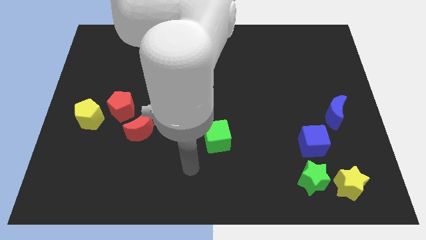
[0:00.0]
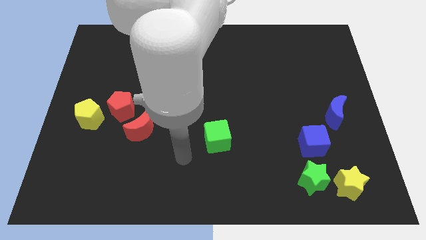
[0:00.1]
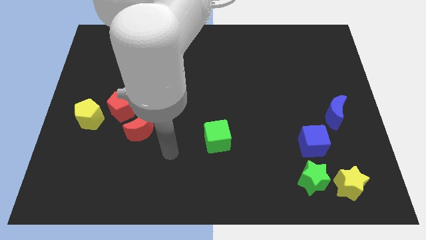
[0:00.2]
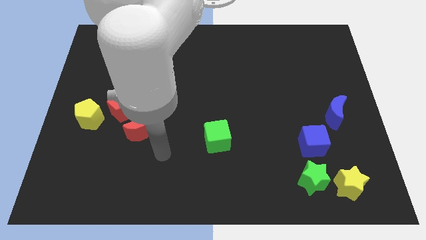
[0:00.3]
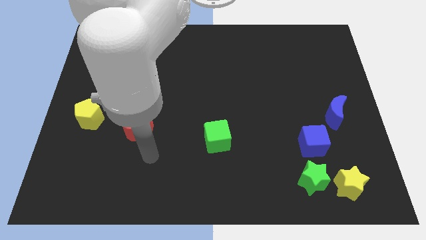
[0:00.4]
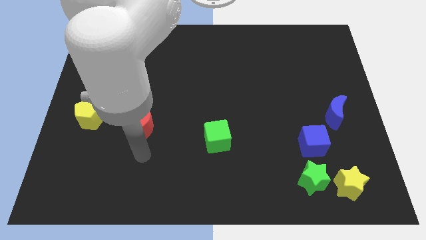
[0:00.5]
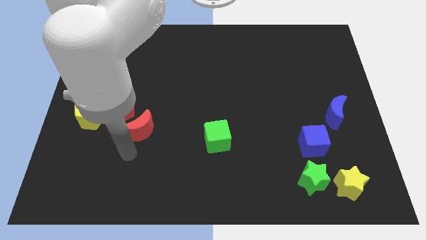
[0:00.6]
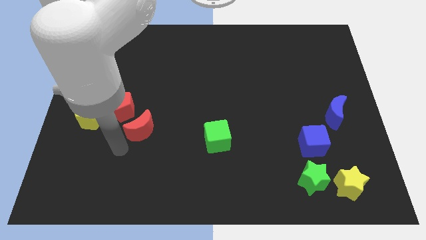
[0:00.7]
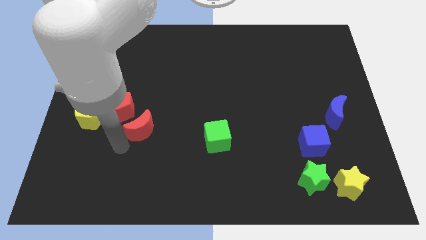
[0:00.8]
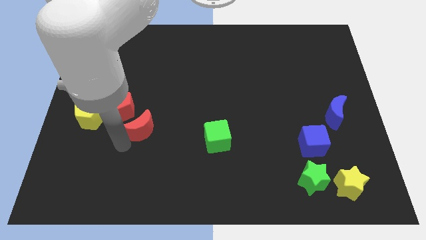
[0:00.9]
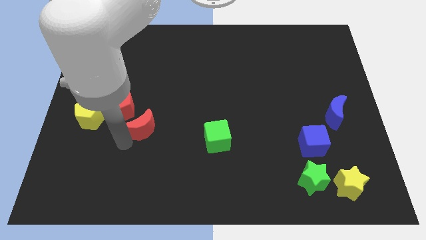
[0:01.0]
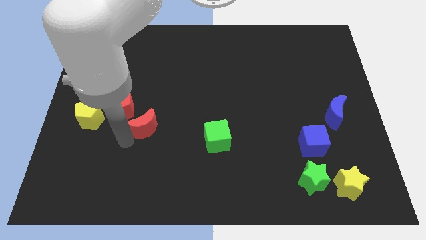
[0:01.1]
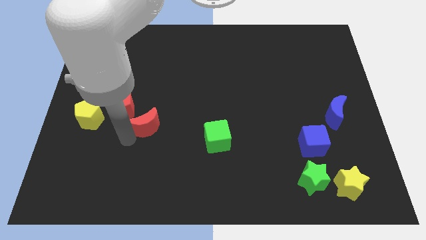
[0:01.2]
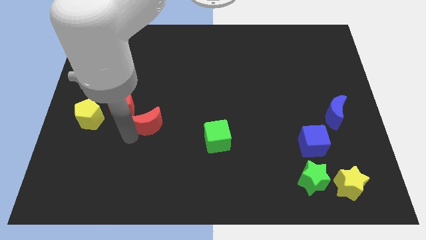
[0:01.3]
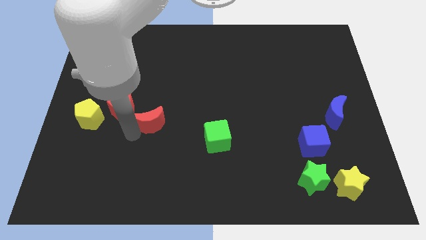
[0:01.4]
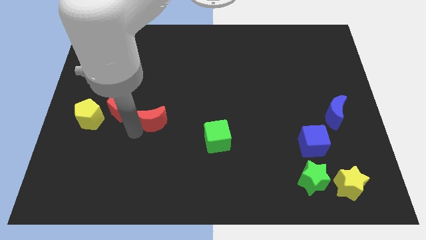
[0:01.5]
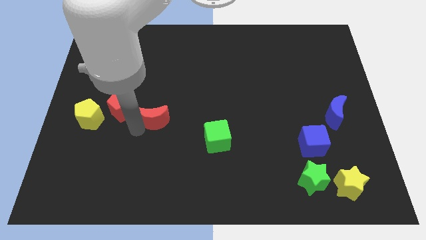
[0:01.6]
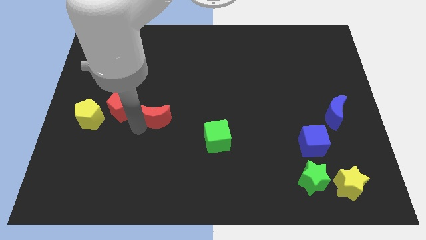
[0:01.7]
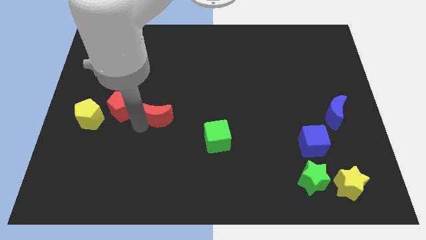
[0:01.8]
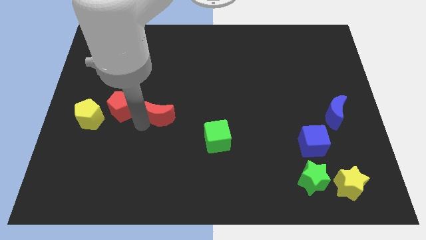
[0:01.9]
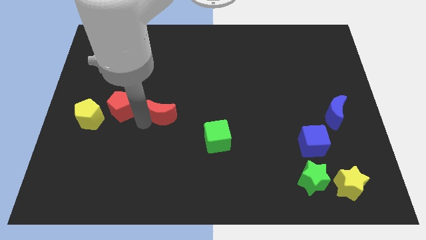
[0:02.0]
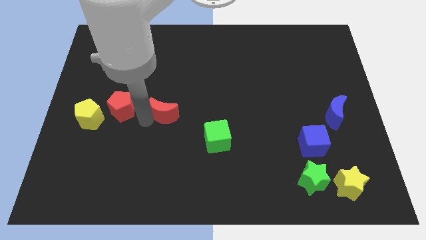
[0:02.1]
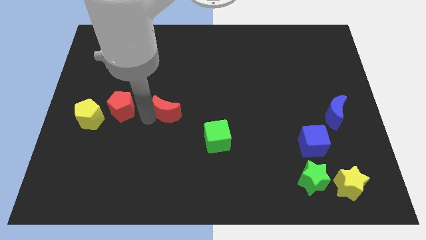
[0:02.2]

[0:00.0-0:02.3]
slightly move the red moon up and then to the right

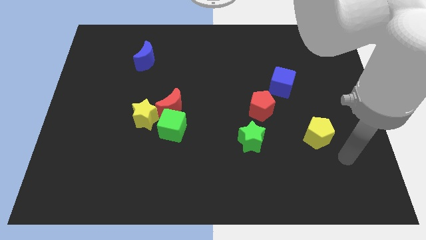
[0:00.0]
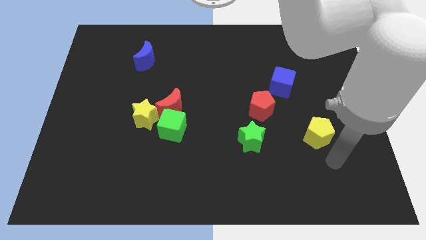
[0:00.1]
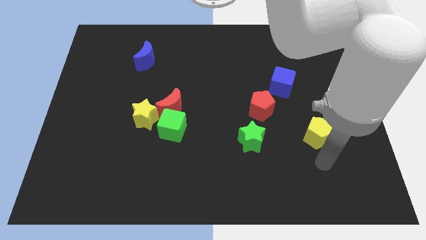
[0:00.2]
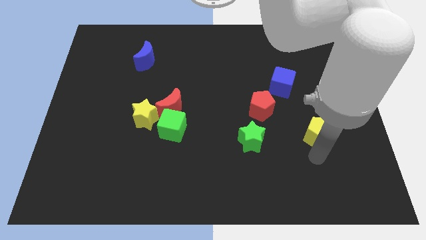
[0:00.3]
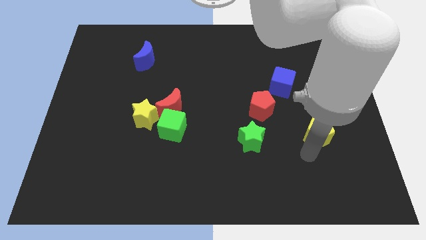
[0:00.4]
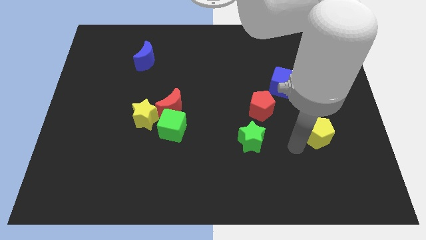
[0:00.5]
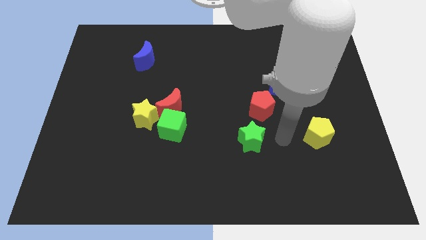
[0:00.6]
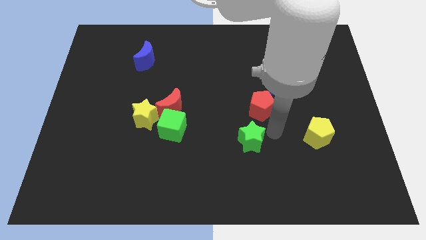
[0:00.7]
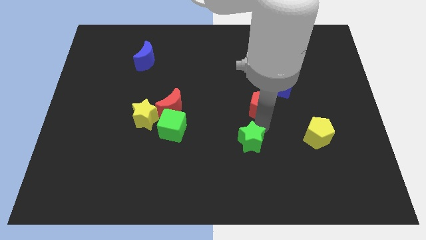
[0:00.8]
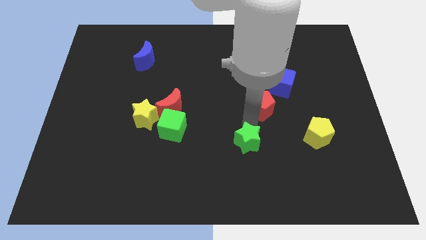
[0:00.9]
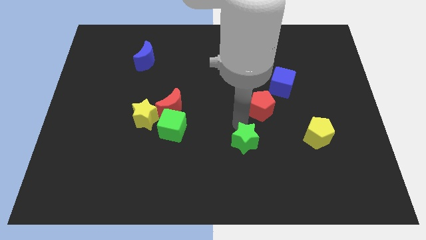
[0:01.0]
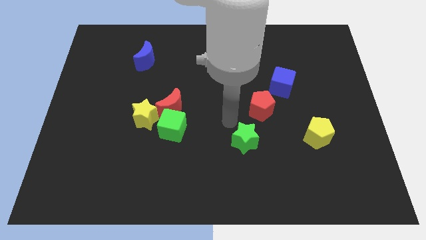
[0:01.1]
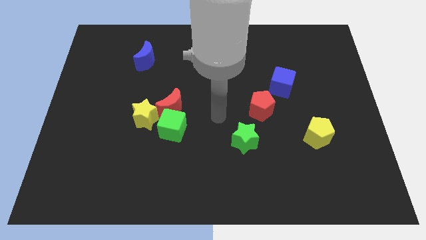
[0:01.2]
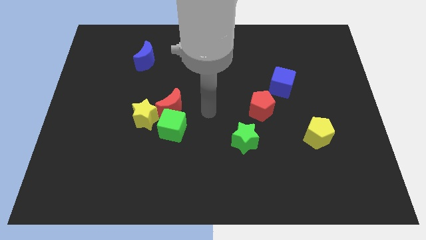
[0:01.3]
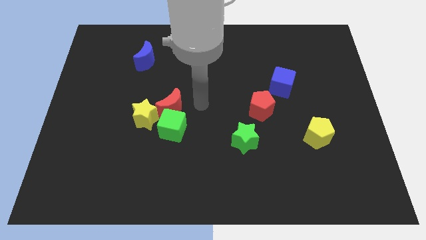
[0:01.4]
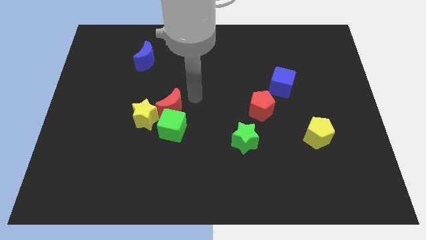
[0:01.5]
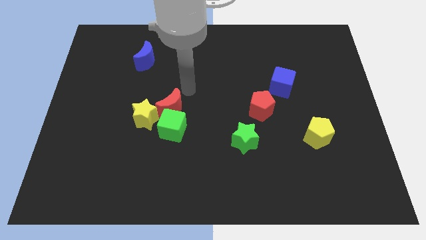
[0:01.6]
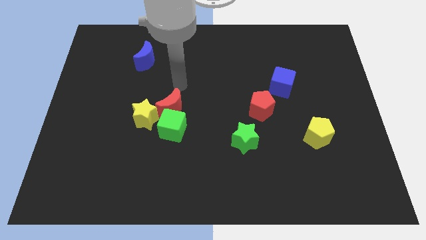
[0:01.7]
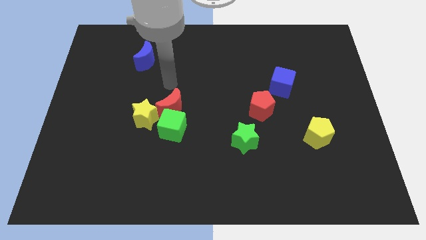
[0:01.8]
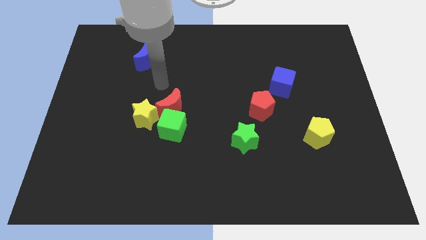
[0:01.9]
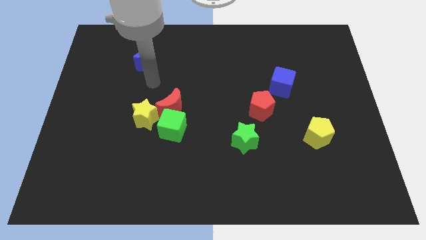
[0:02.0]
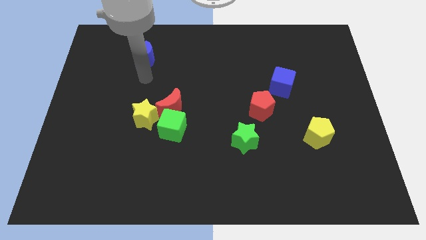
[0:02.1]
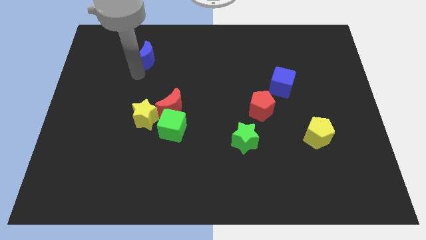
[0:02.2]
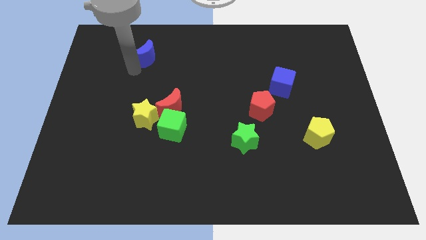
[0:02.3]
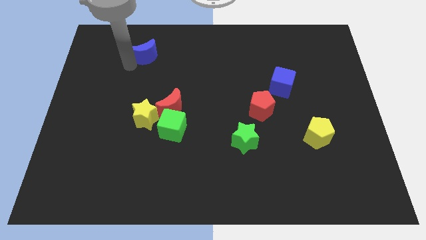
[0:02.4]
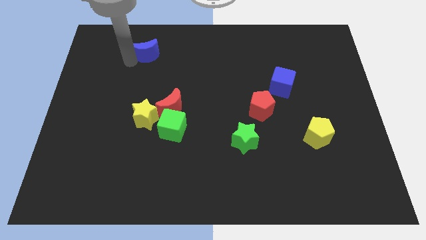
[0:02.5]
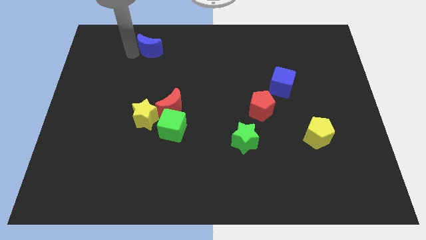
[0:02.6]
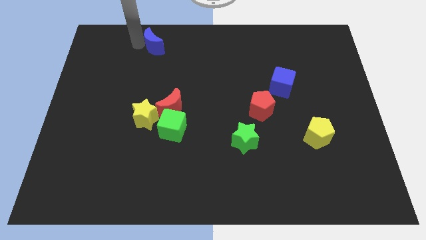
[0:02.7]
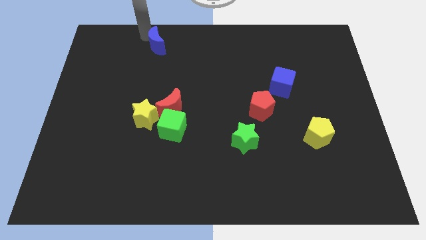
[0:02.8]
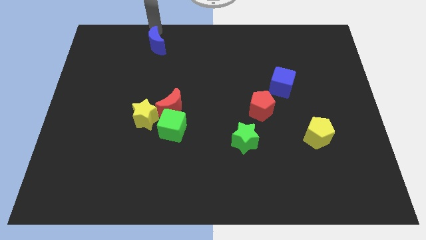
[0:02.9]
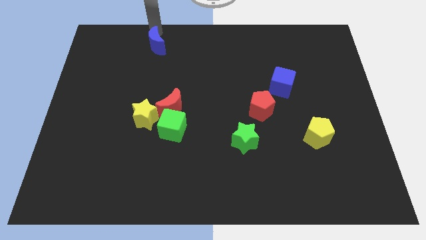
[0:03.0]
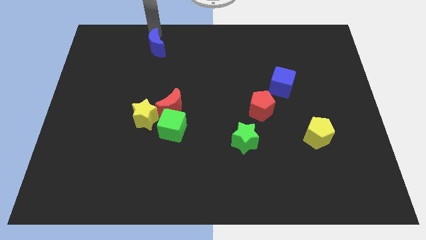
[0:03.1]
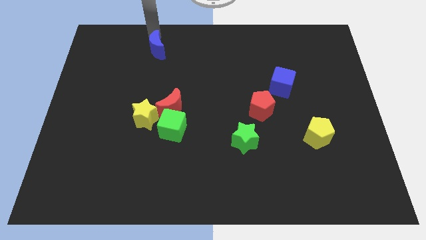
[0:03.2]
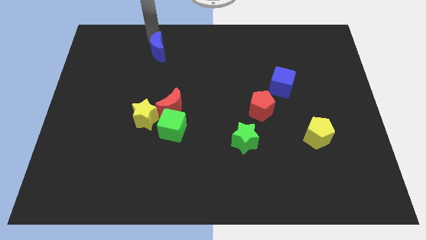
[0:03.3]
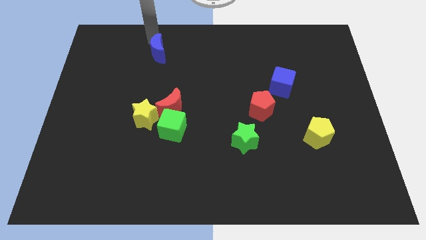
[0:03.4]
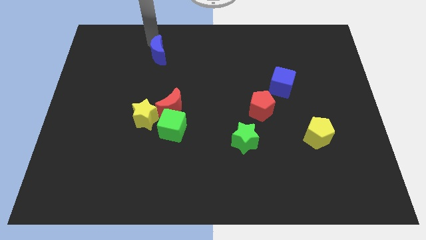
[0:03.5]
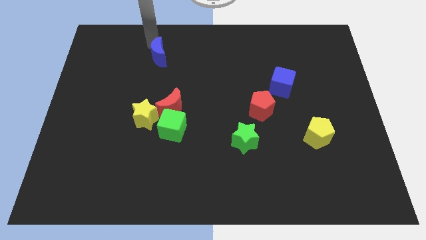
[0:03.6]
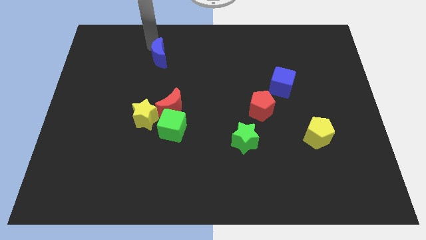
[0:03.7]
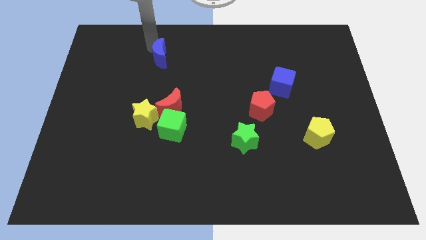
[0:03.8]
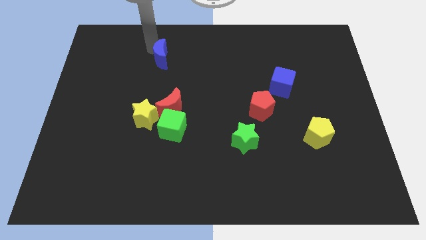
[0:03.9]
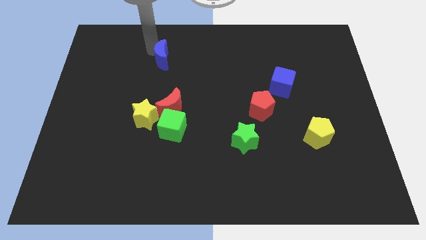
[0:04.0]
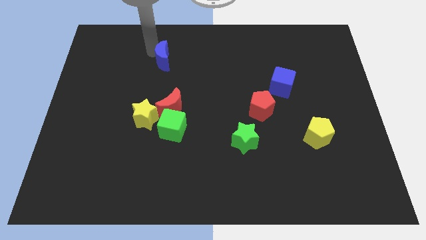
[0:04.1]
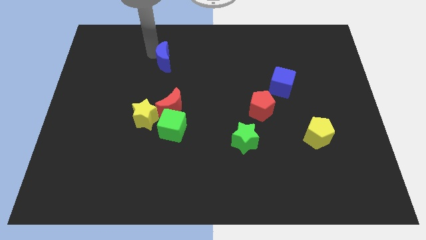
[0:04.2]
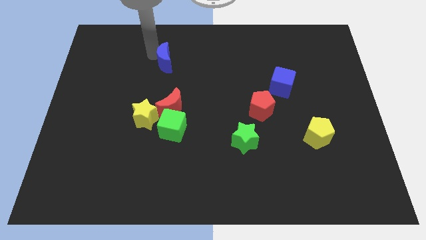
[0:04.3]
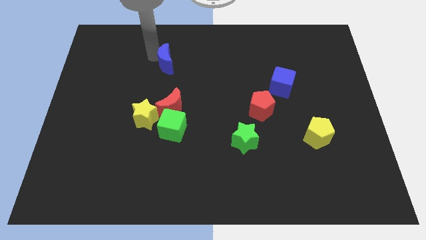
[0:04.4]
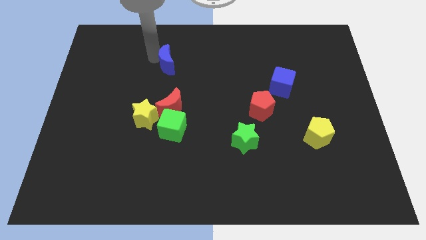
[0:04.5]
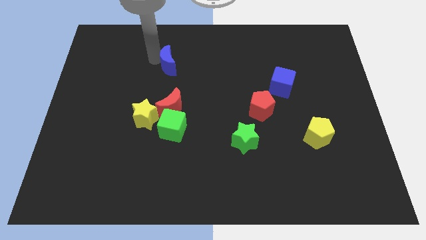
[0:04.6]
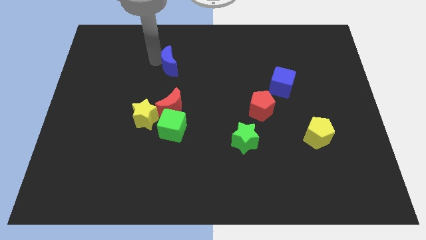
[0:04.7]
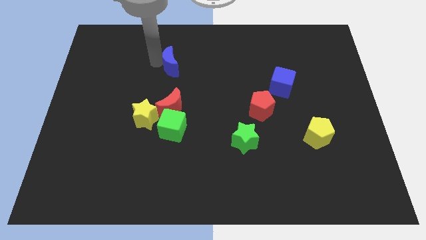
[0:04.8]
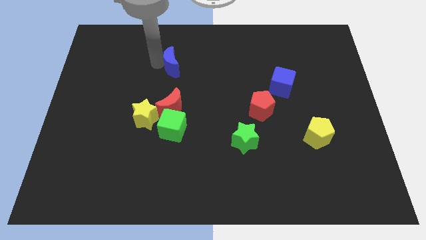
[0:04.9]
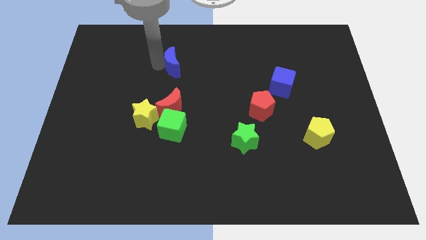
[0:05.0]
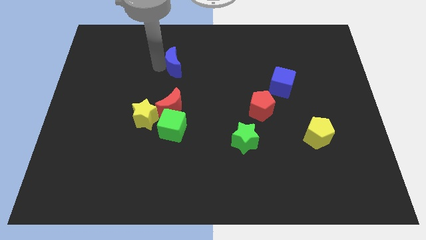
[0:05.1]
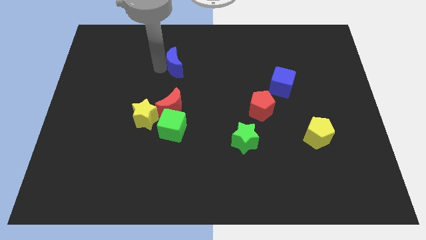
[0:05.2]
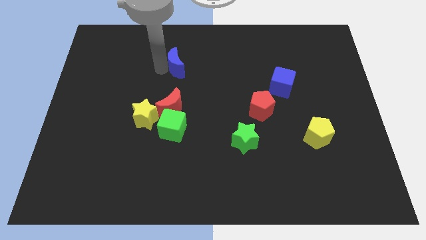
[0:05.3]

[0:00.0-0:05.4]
slide the blue moon downwards and to the right a bit

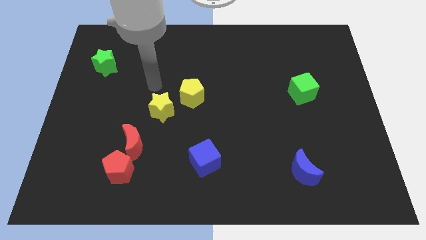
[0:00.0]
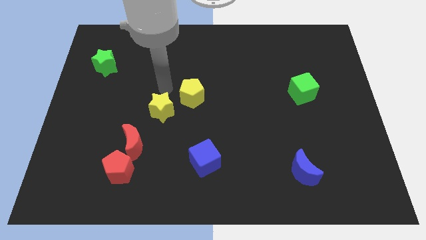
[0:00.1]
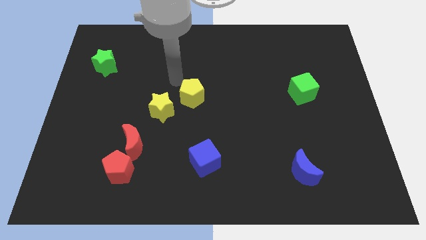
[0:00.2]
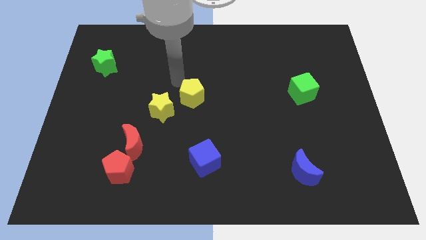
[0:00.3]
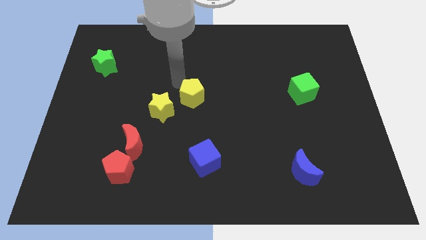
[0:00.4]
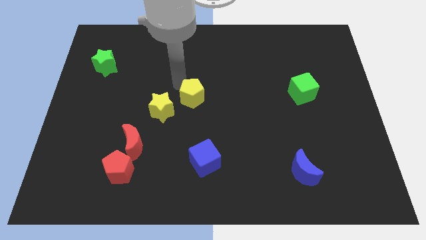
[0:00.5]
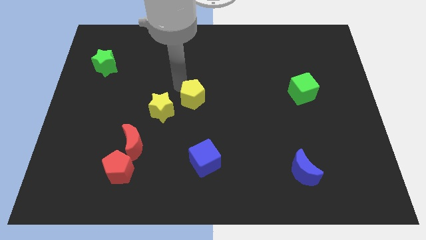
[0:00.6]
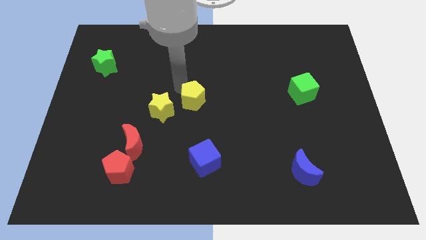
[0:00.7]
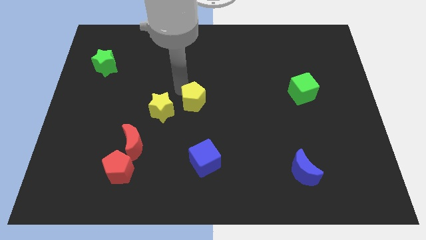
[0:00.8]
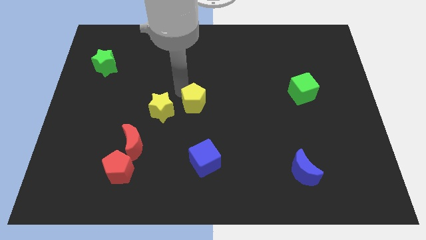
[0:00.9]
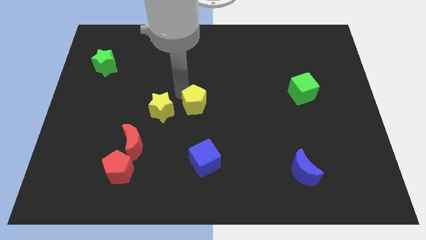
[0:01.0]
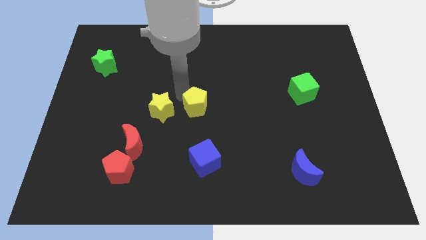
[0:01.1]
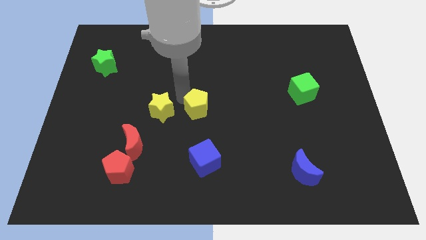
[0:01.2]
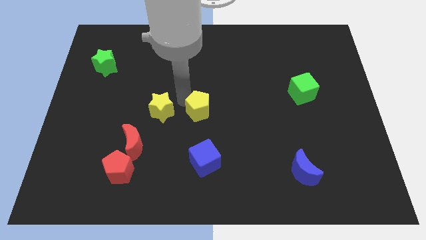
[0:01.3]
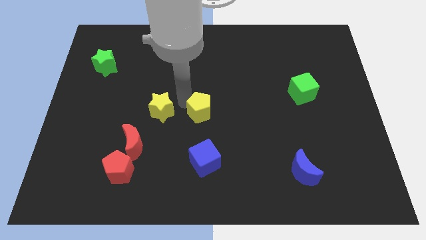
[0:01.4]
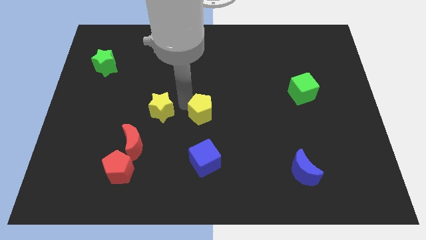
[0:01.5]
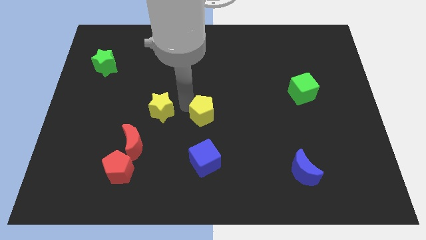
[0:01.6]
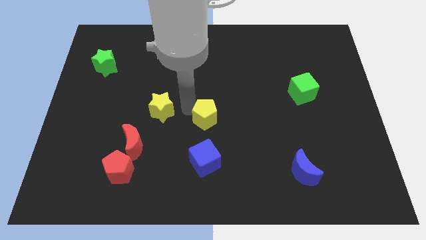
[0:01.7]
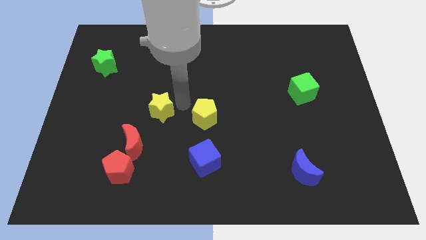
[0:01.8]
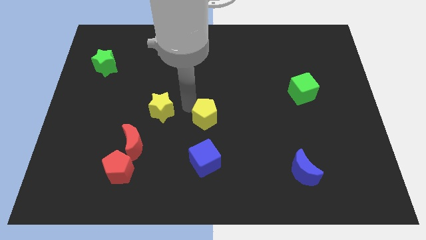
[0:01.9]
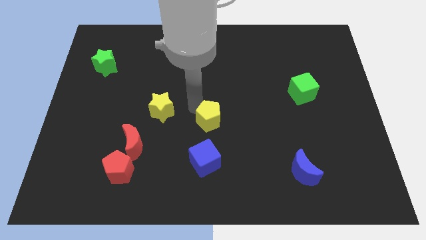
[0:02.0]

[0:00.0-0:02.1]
slightly slide the yellow pentagon downwards and then to the right
